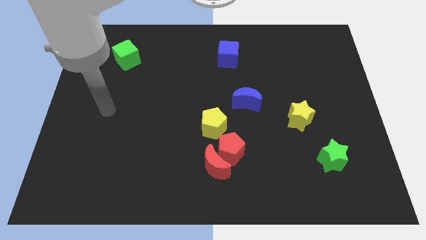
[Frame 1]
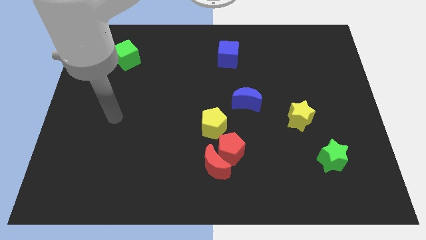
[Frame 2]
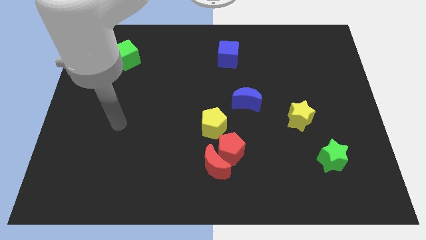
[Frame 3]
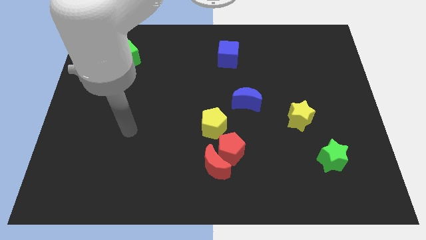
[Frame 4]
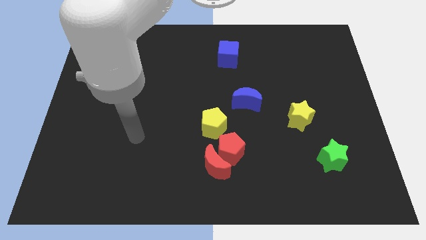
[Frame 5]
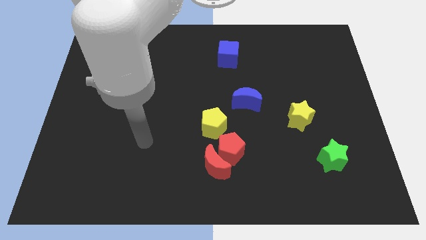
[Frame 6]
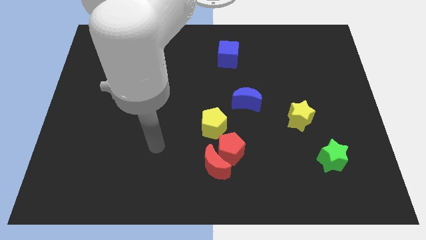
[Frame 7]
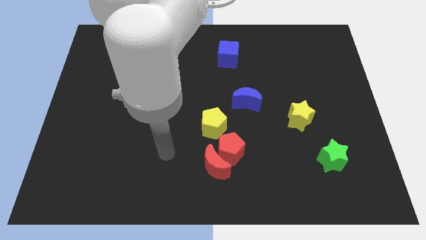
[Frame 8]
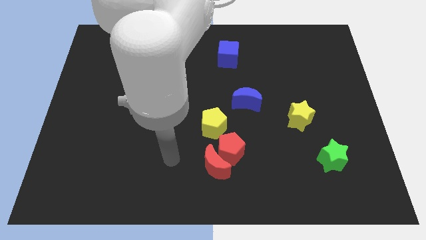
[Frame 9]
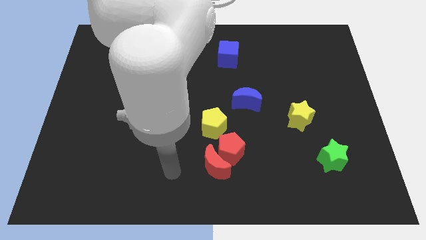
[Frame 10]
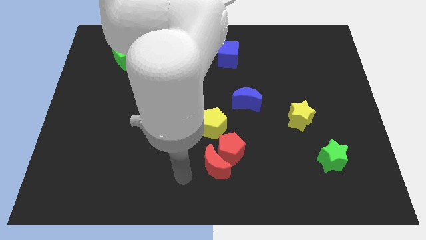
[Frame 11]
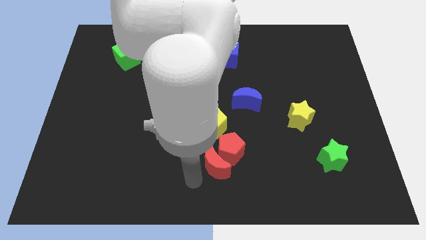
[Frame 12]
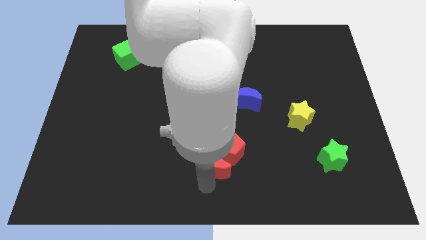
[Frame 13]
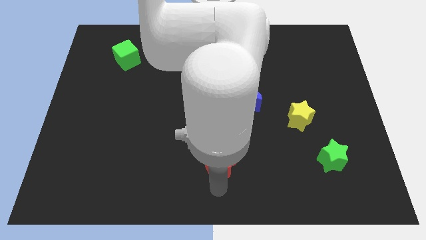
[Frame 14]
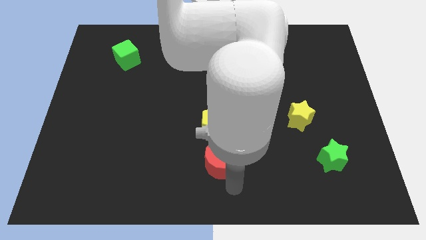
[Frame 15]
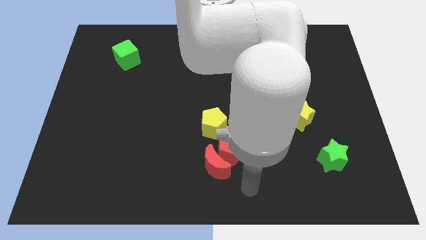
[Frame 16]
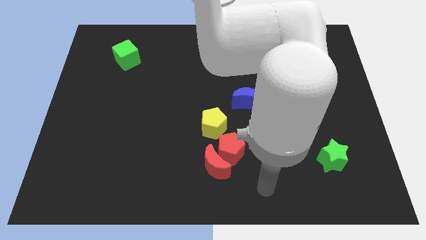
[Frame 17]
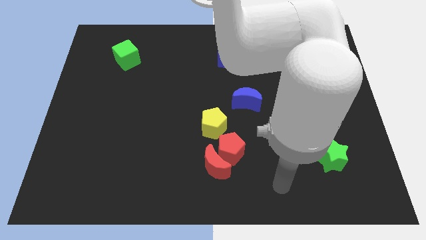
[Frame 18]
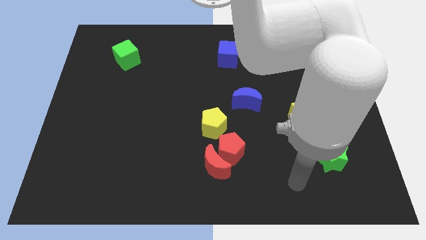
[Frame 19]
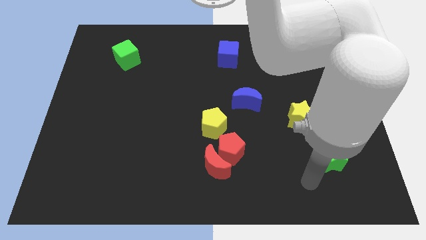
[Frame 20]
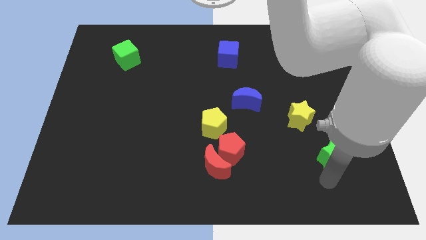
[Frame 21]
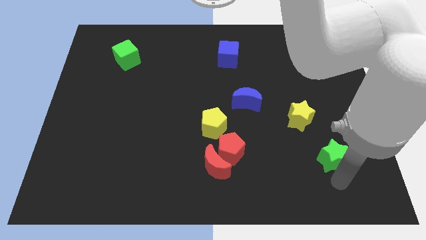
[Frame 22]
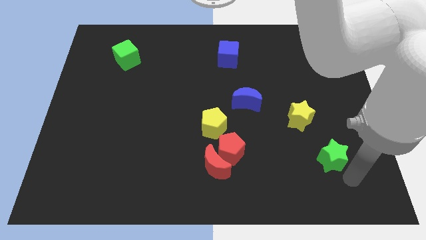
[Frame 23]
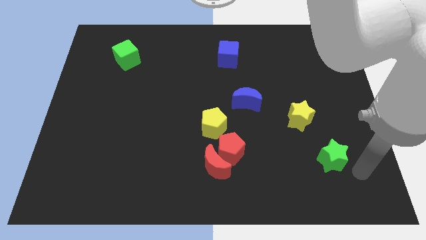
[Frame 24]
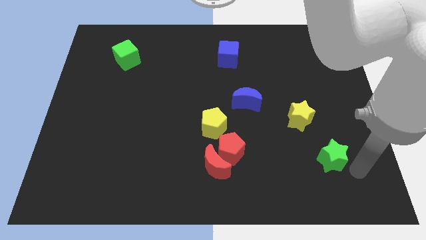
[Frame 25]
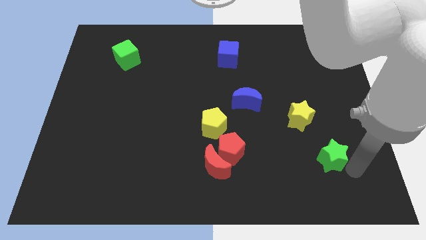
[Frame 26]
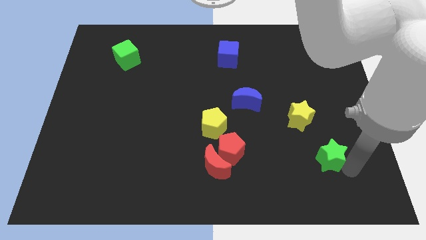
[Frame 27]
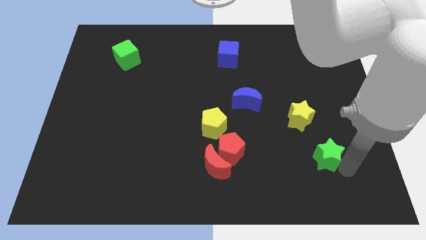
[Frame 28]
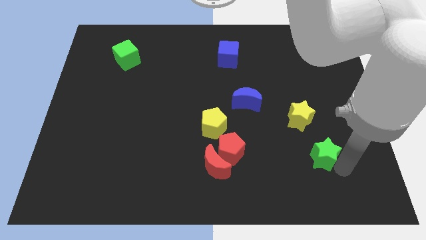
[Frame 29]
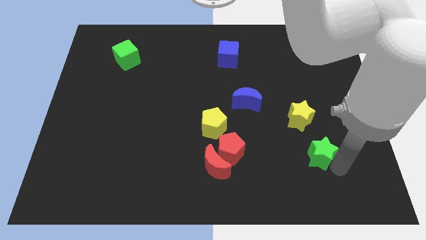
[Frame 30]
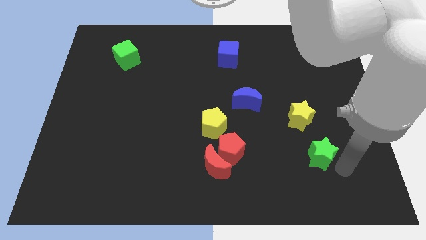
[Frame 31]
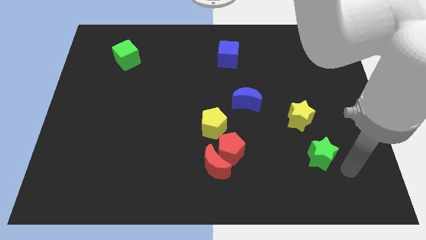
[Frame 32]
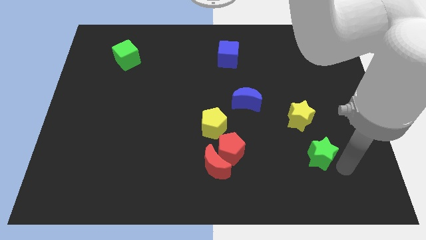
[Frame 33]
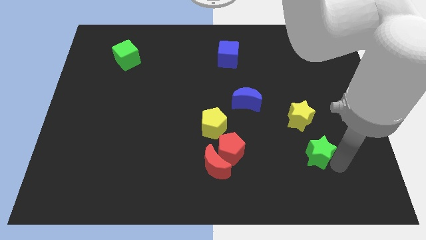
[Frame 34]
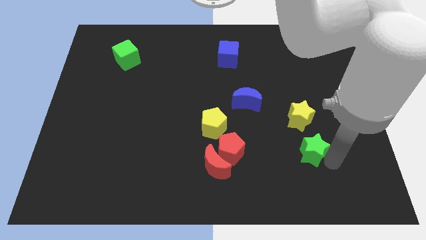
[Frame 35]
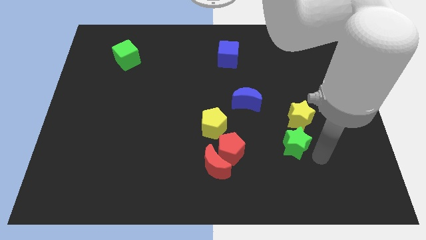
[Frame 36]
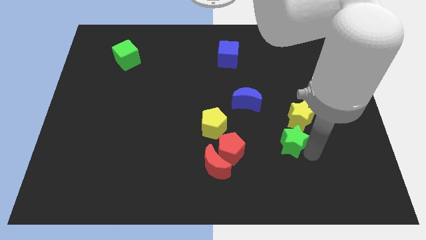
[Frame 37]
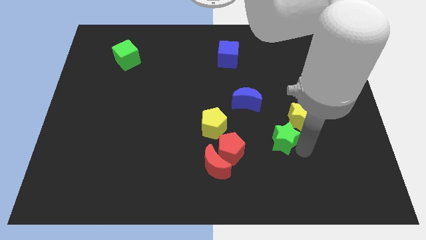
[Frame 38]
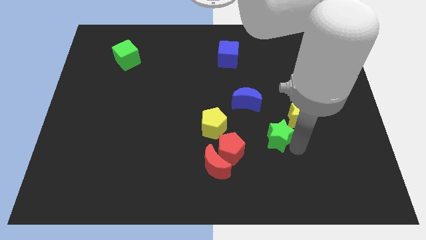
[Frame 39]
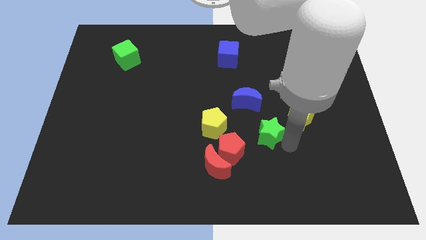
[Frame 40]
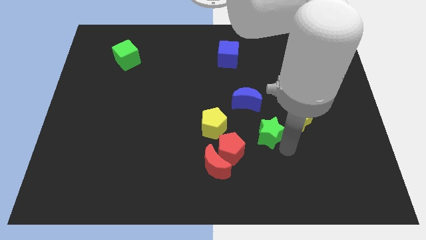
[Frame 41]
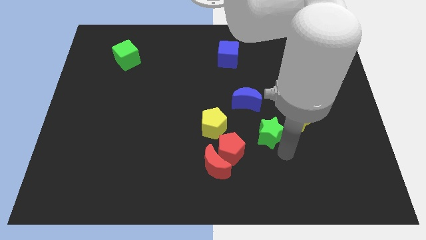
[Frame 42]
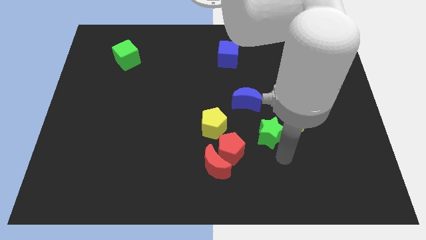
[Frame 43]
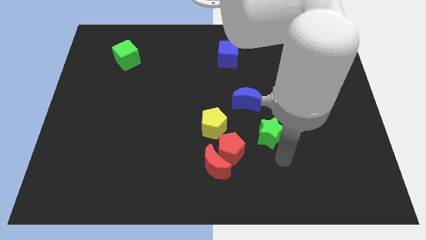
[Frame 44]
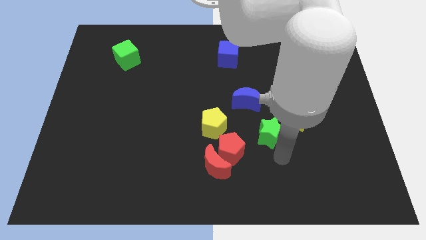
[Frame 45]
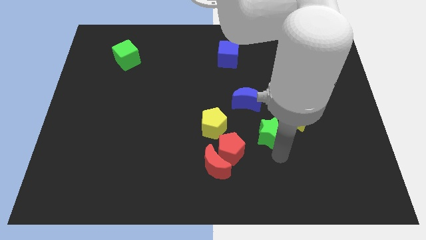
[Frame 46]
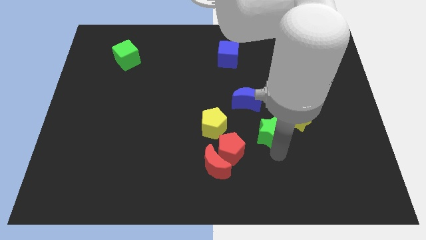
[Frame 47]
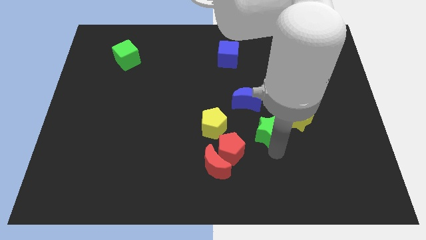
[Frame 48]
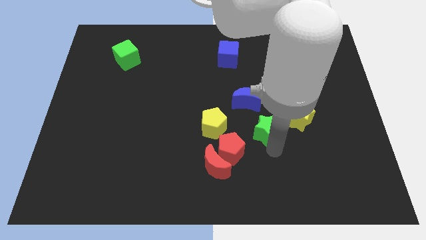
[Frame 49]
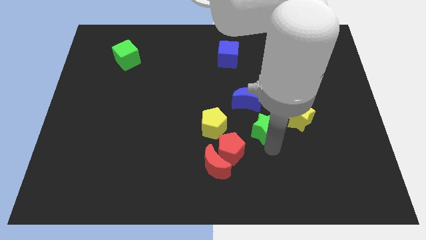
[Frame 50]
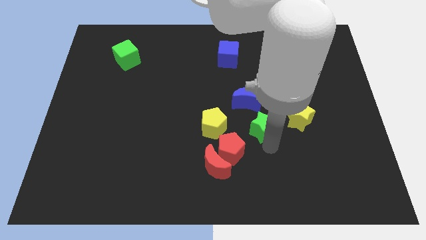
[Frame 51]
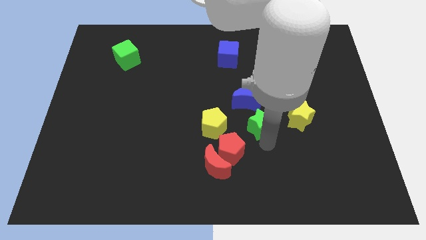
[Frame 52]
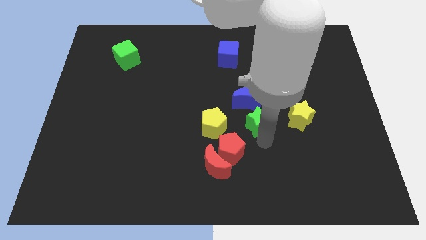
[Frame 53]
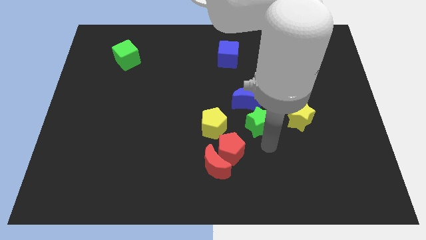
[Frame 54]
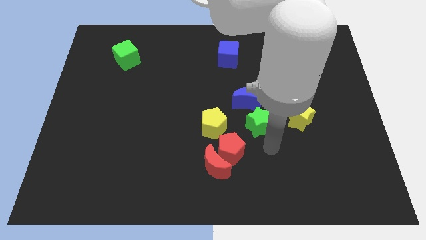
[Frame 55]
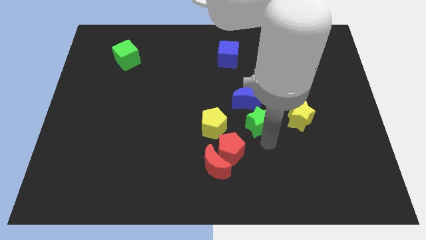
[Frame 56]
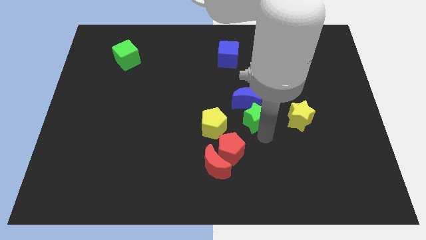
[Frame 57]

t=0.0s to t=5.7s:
push the green star next to the blue moon

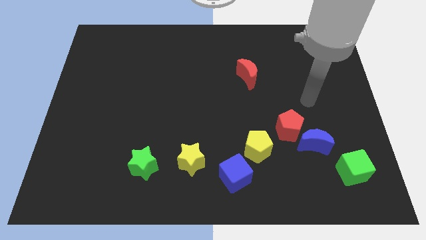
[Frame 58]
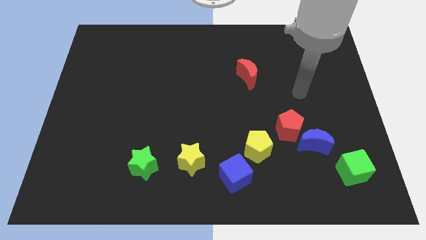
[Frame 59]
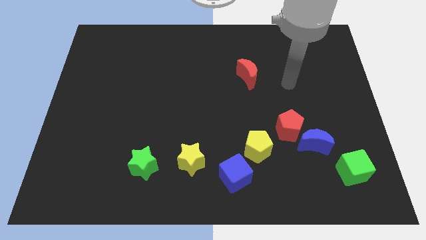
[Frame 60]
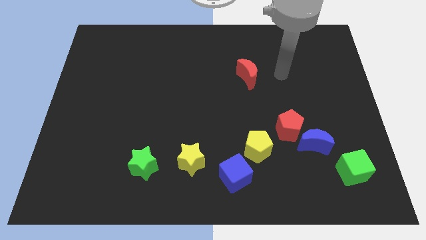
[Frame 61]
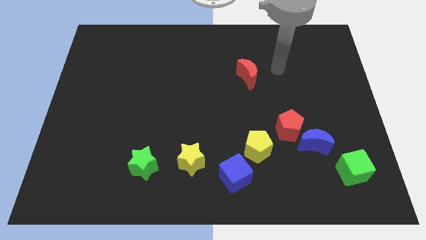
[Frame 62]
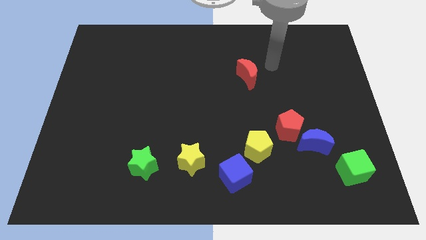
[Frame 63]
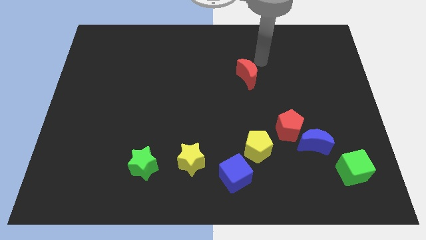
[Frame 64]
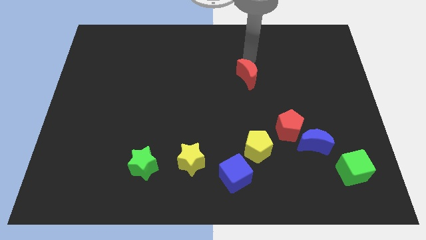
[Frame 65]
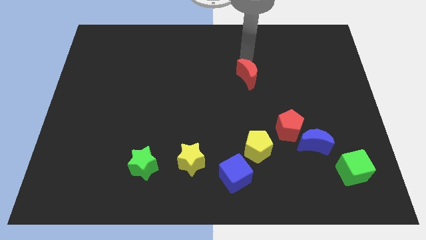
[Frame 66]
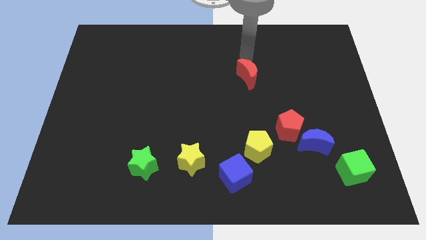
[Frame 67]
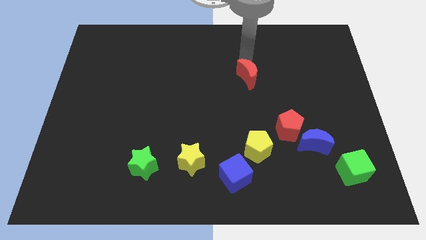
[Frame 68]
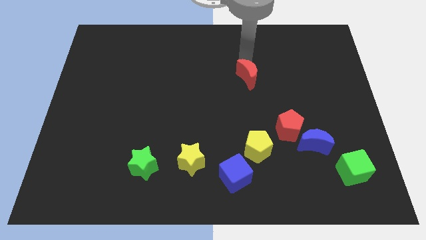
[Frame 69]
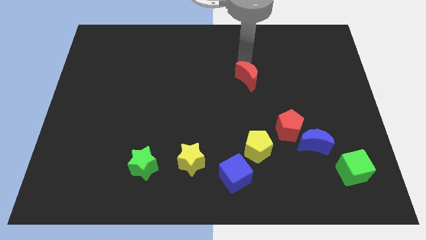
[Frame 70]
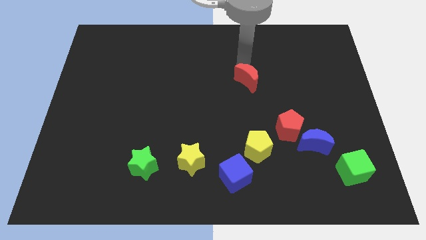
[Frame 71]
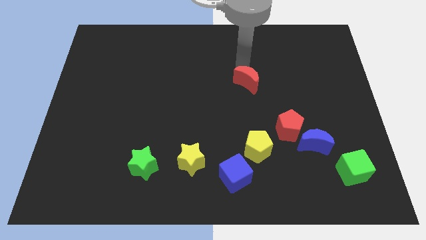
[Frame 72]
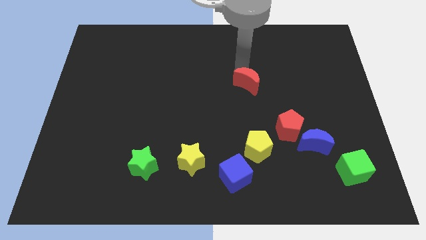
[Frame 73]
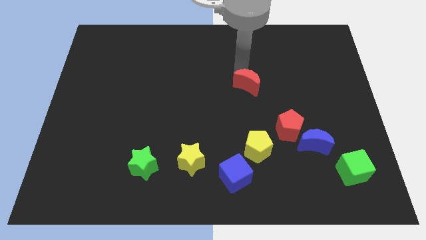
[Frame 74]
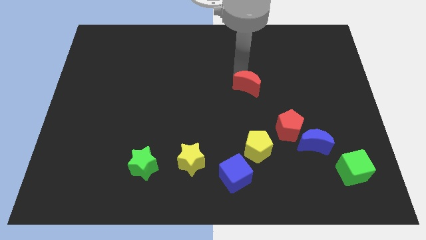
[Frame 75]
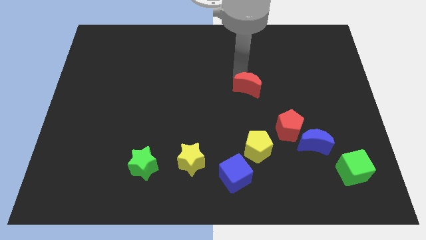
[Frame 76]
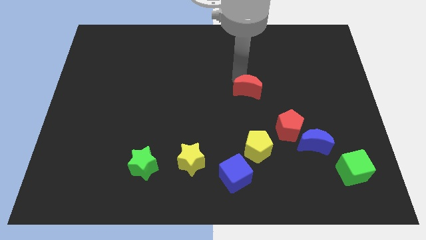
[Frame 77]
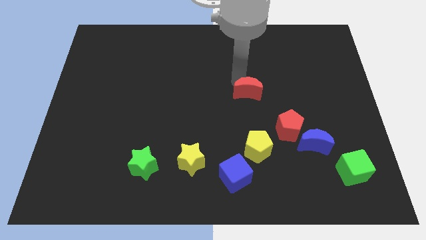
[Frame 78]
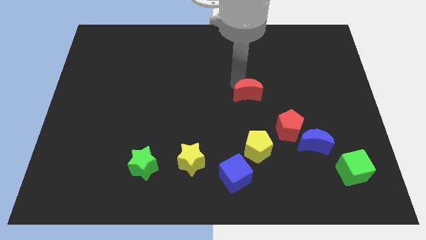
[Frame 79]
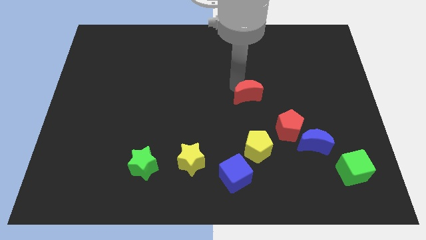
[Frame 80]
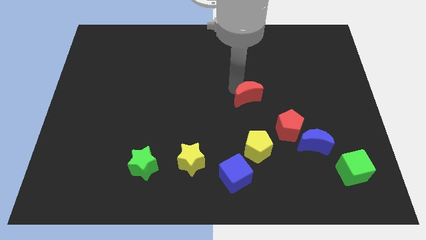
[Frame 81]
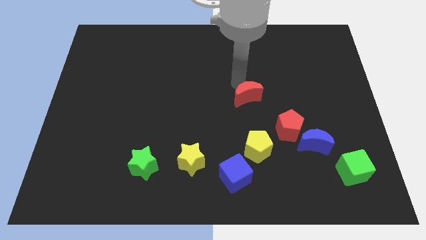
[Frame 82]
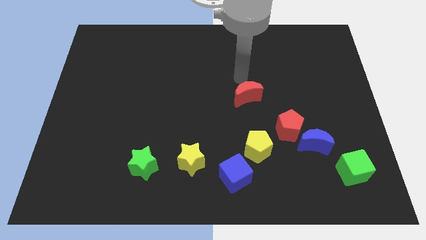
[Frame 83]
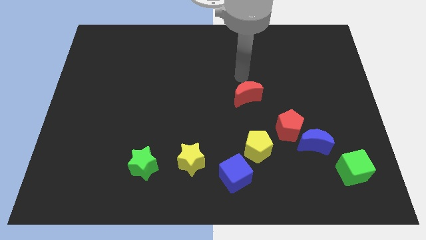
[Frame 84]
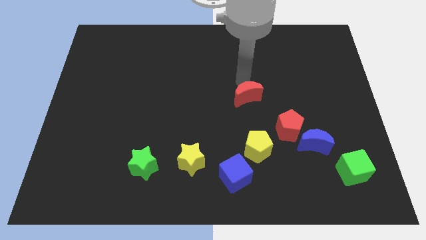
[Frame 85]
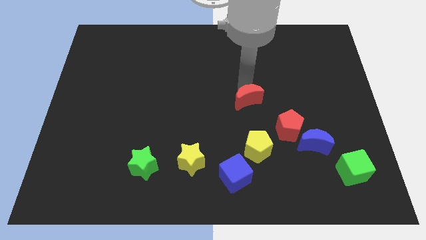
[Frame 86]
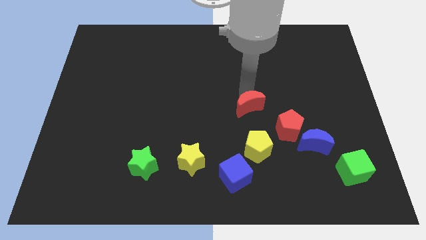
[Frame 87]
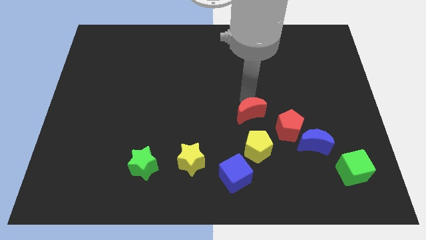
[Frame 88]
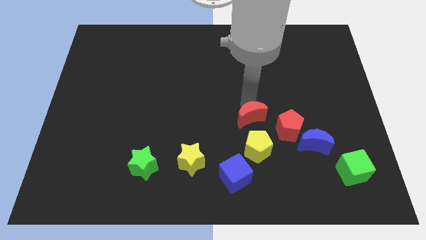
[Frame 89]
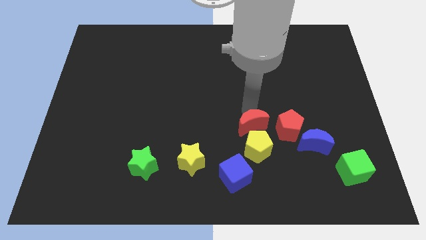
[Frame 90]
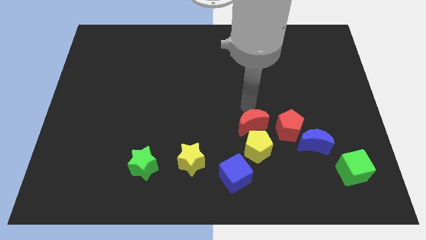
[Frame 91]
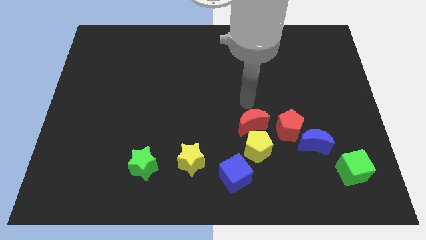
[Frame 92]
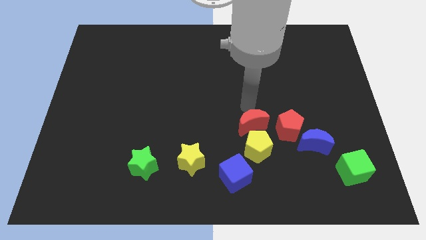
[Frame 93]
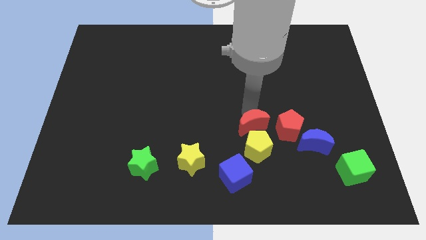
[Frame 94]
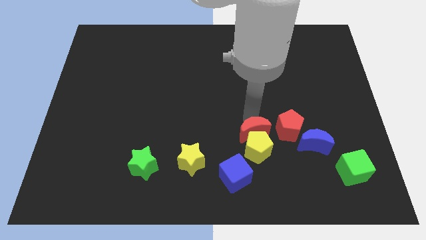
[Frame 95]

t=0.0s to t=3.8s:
put the red moon next to the yellow pentagon
